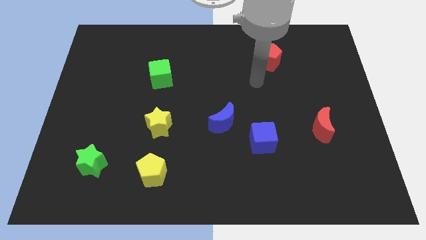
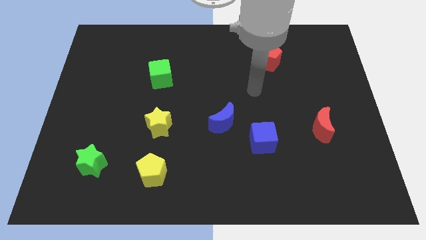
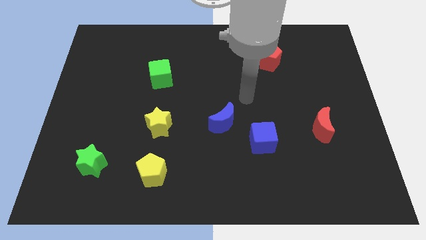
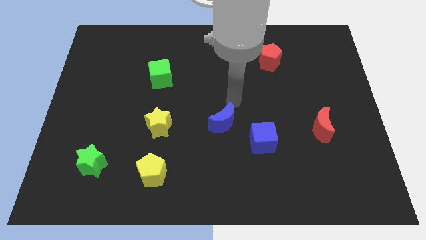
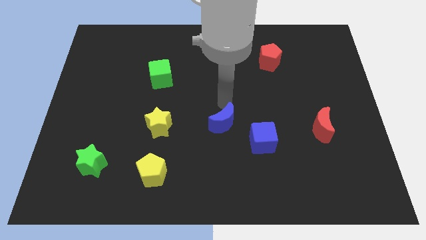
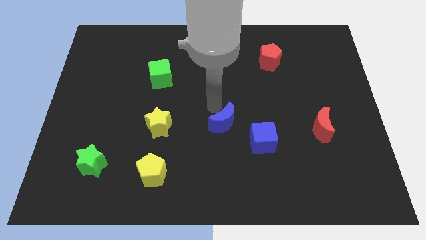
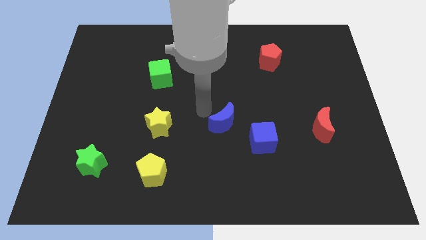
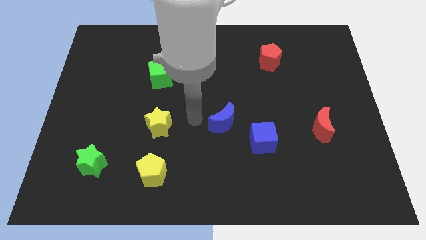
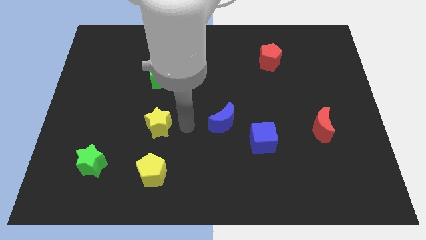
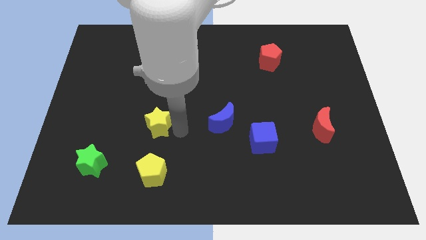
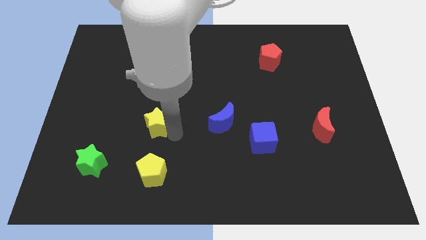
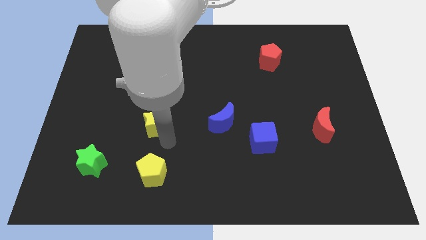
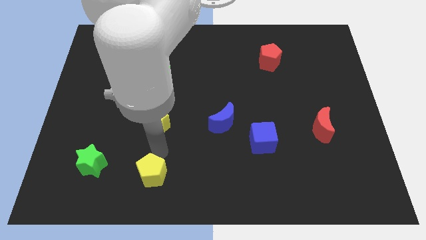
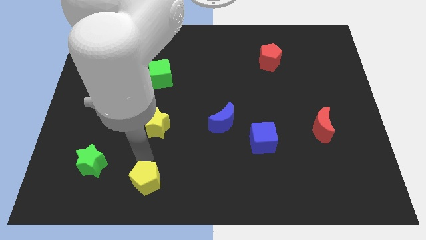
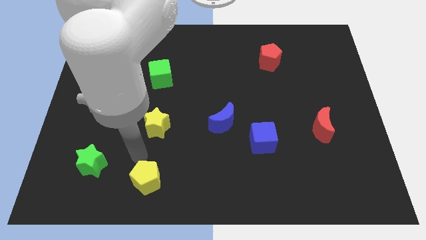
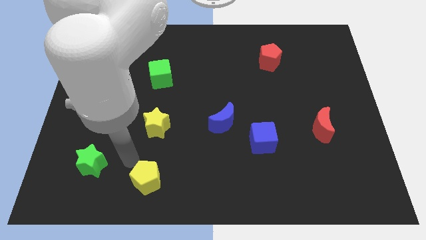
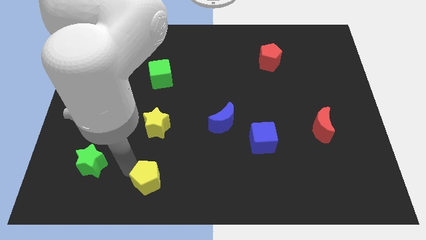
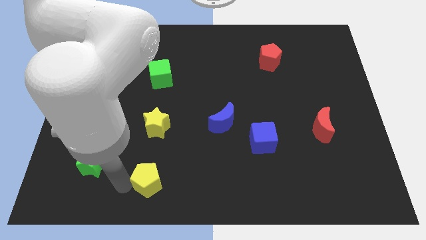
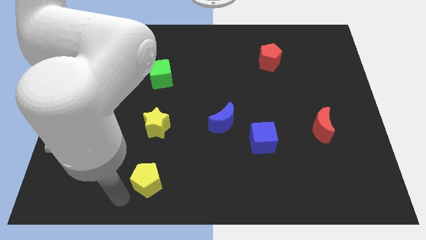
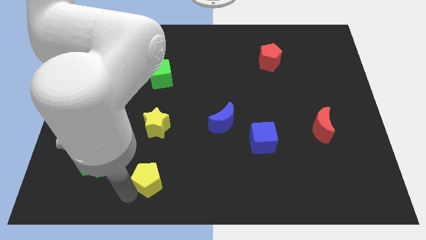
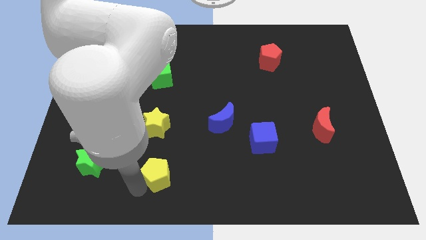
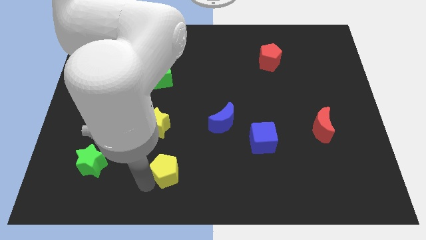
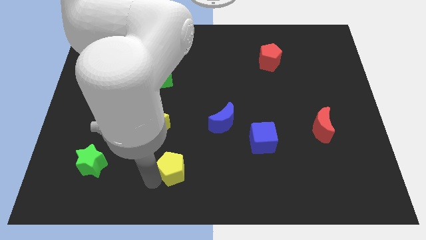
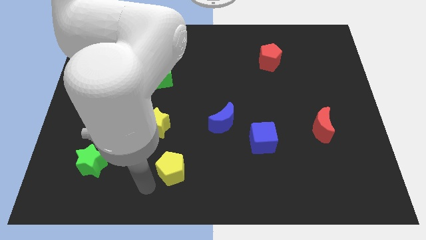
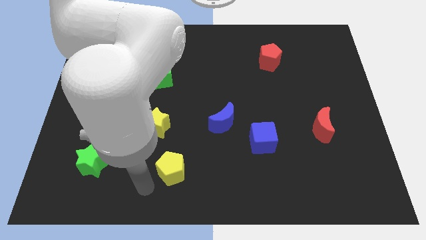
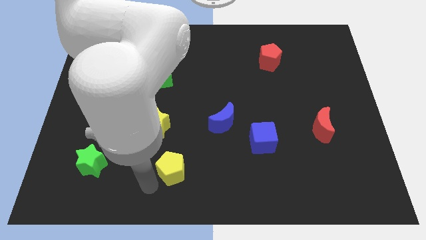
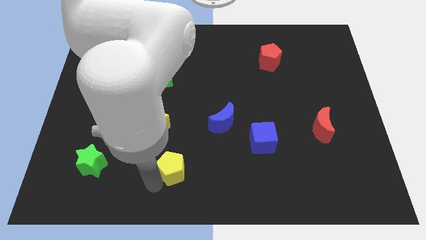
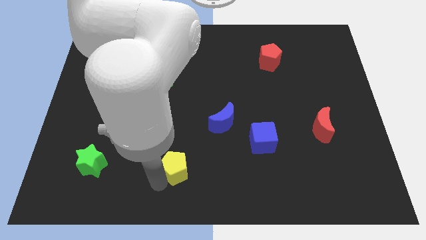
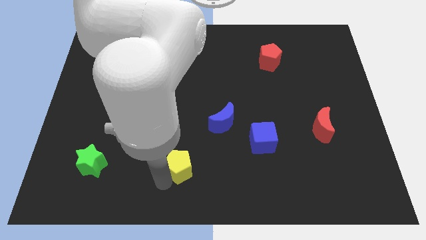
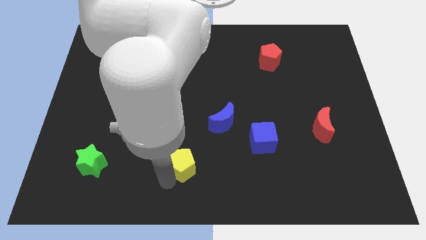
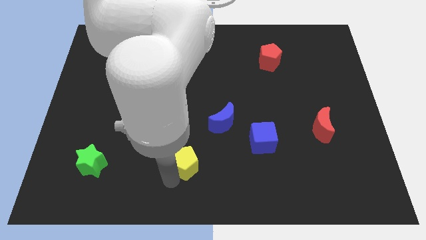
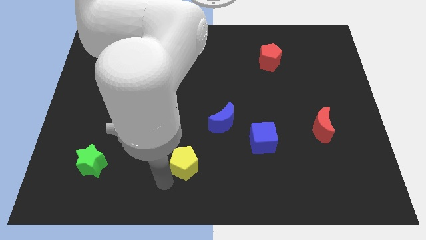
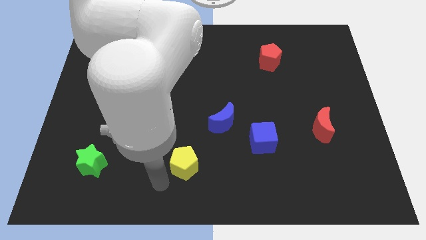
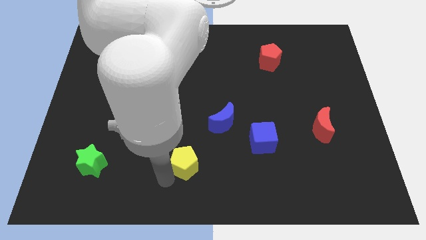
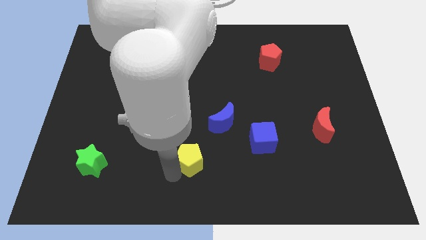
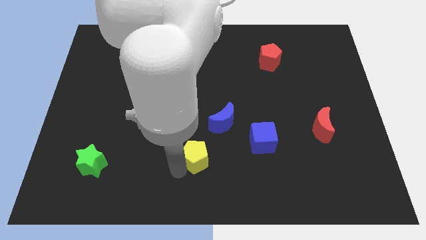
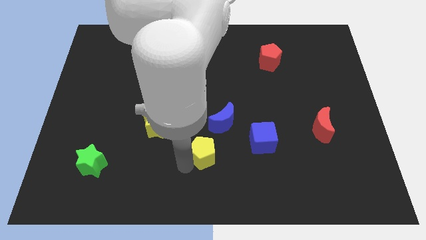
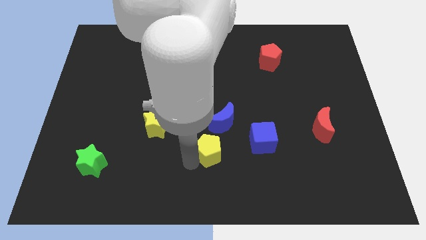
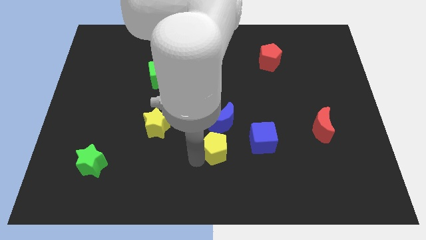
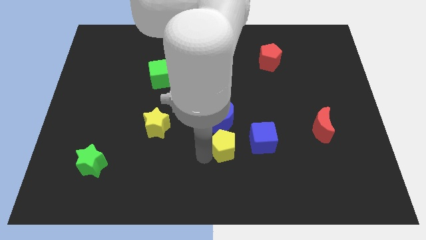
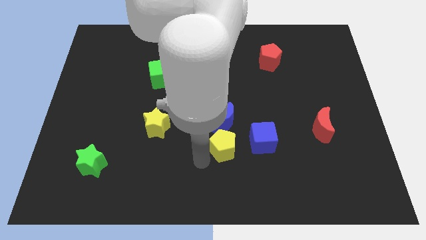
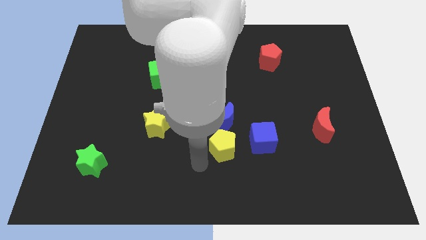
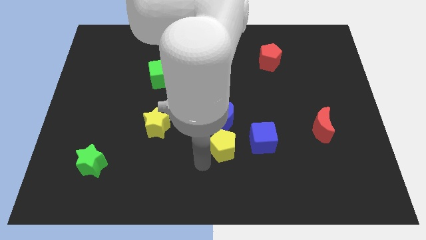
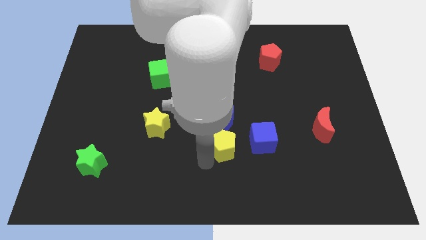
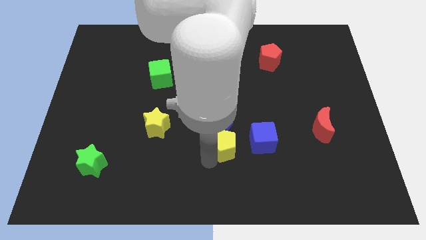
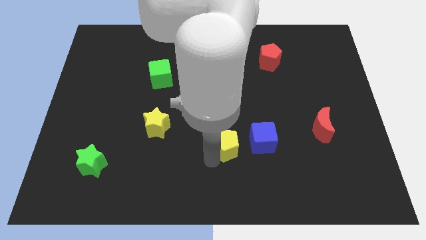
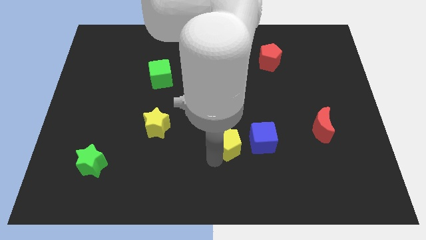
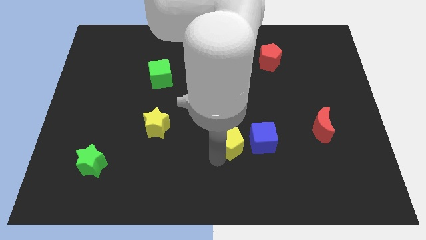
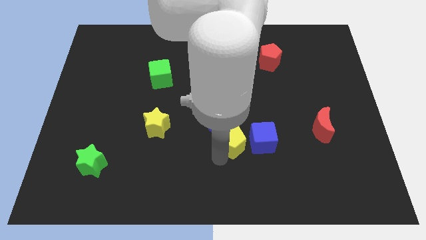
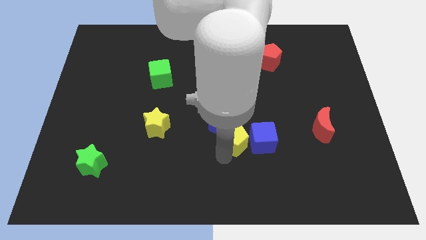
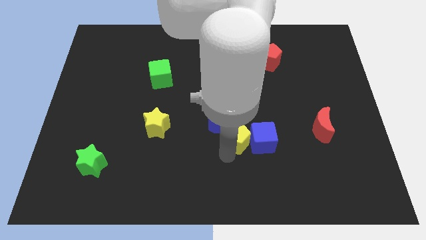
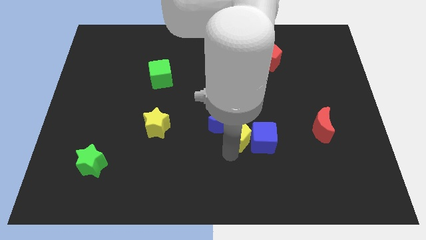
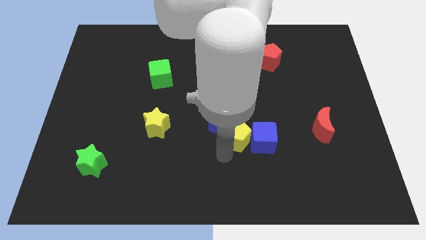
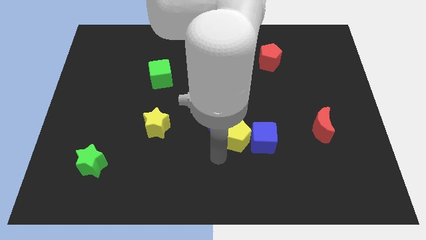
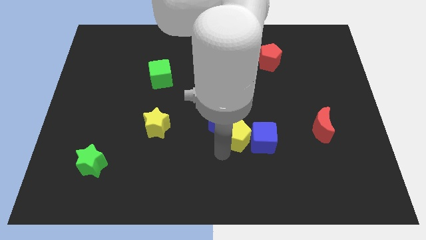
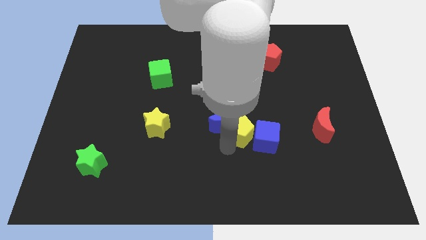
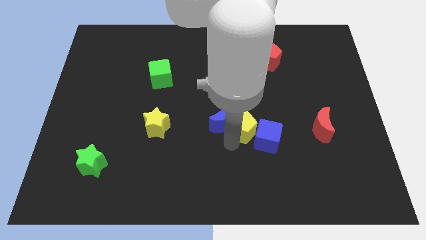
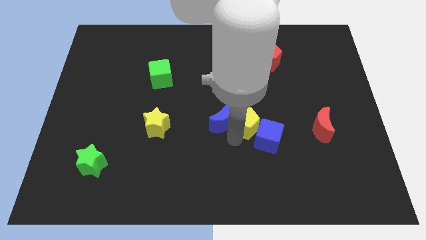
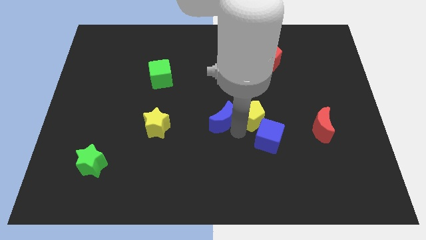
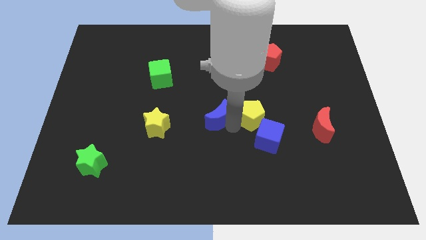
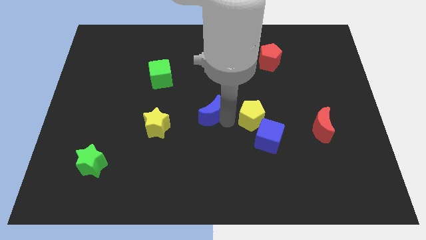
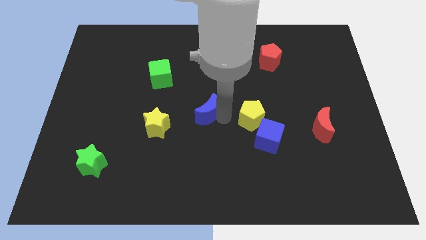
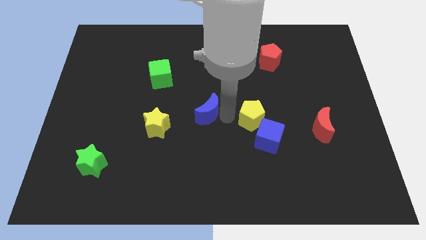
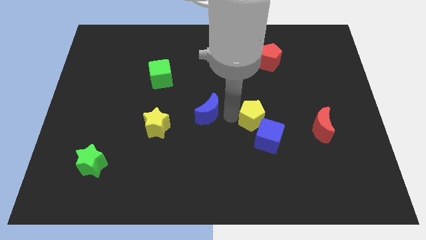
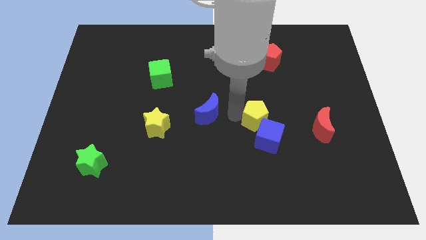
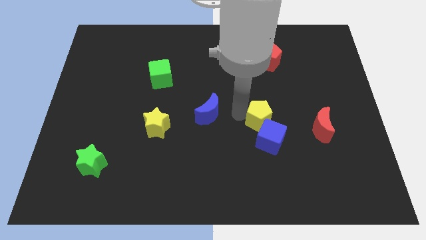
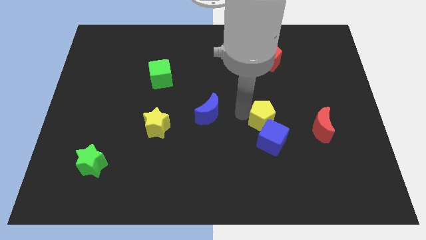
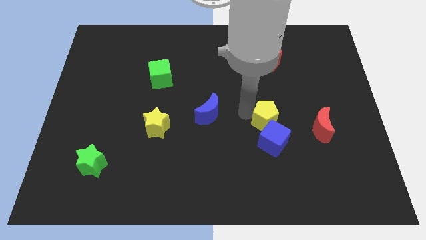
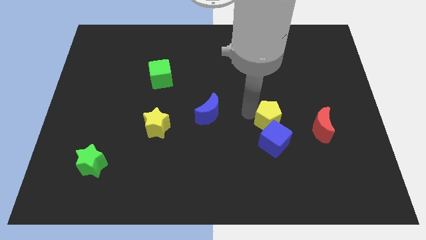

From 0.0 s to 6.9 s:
slide the yellow pentagon diagonally up and to the right of the blue cube
